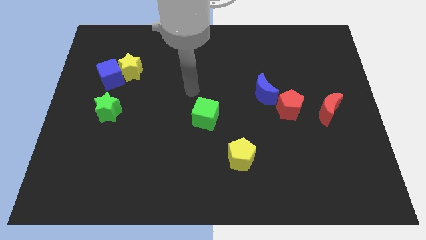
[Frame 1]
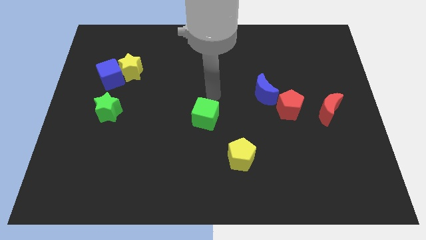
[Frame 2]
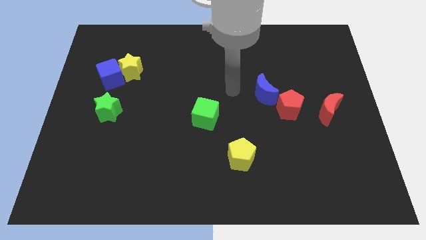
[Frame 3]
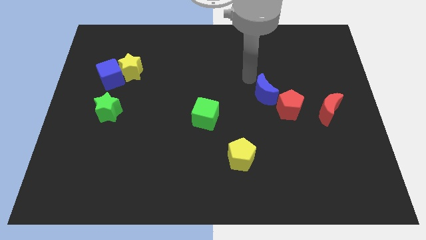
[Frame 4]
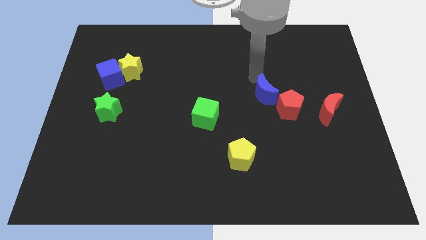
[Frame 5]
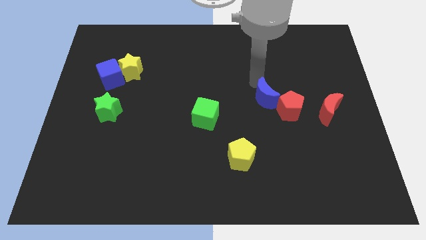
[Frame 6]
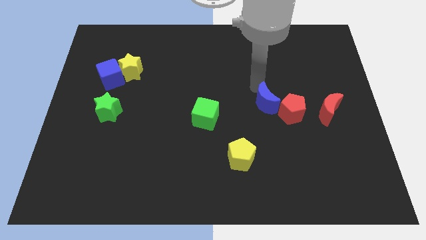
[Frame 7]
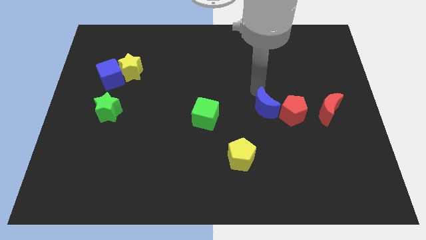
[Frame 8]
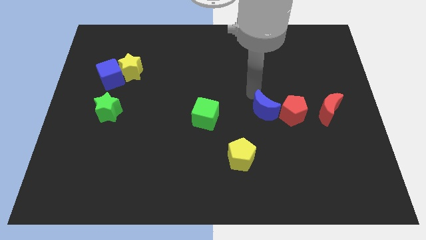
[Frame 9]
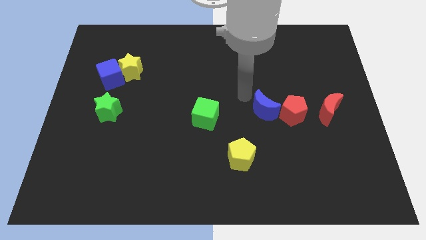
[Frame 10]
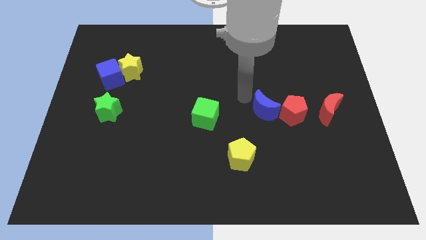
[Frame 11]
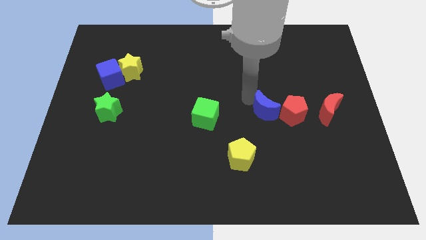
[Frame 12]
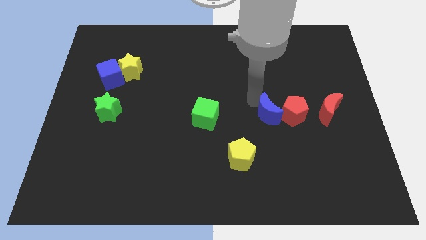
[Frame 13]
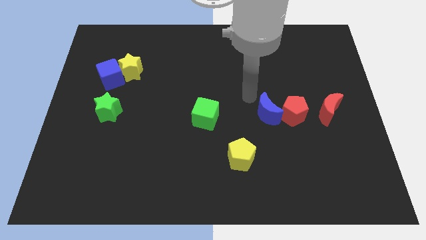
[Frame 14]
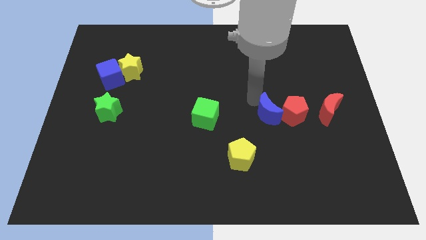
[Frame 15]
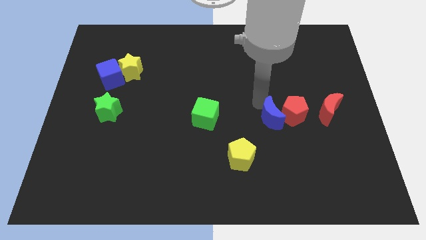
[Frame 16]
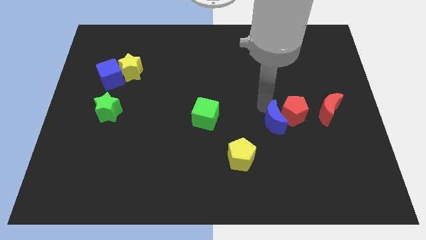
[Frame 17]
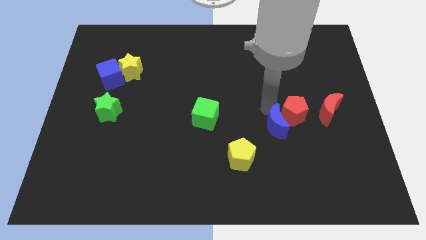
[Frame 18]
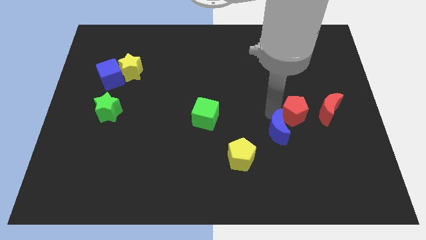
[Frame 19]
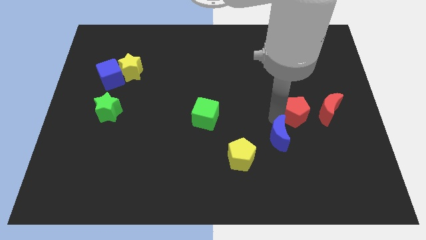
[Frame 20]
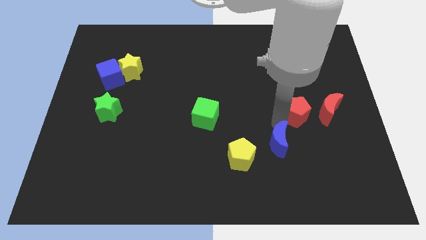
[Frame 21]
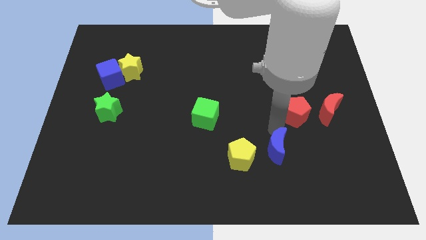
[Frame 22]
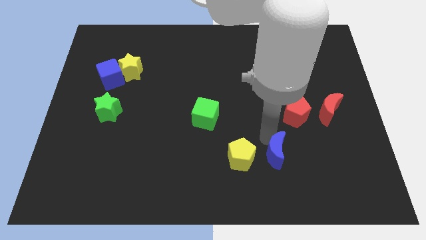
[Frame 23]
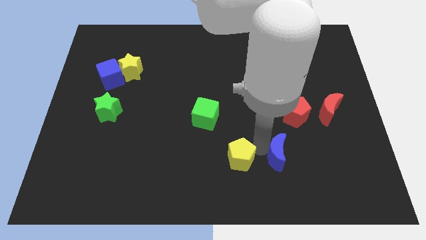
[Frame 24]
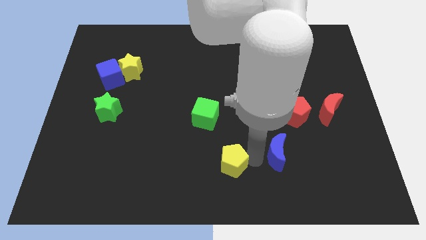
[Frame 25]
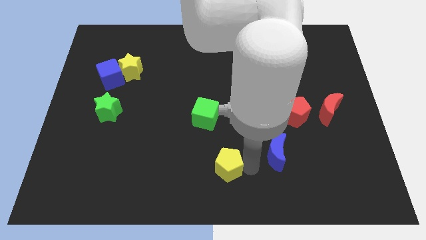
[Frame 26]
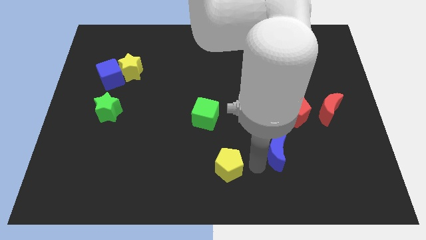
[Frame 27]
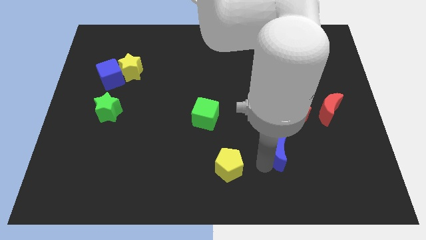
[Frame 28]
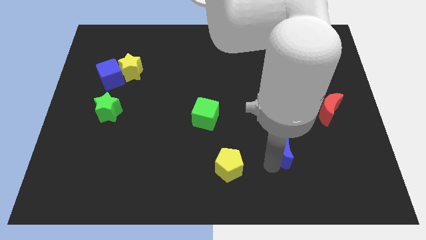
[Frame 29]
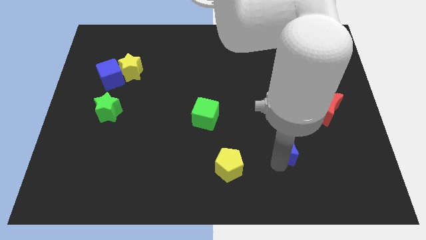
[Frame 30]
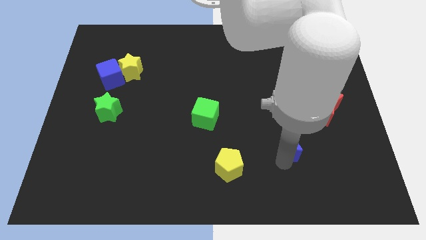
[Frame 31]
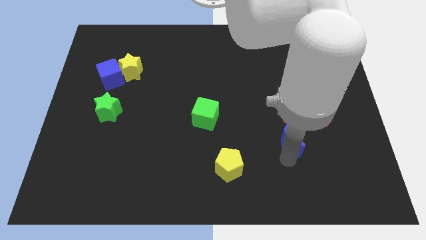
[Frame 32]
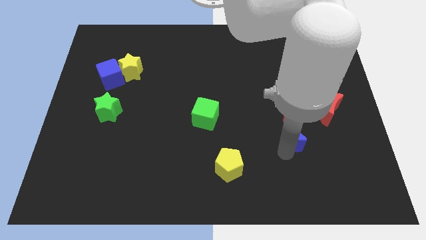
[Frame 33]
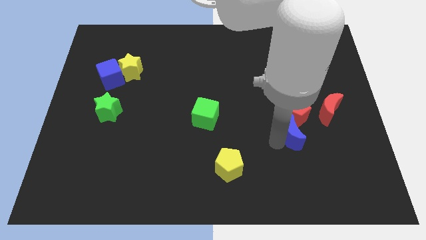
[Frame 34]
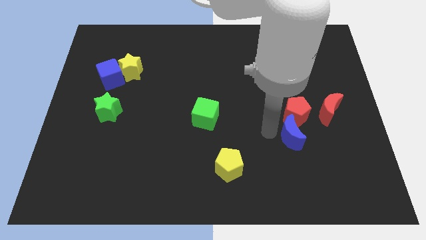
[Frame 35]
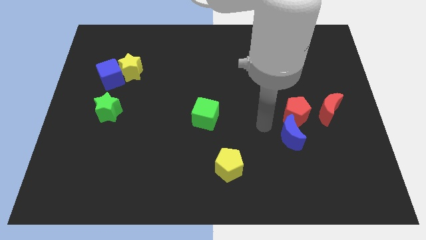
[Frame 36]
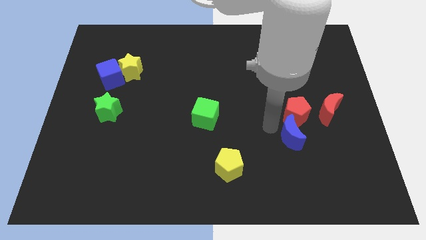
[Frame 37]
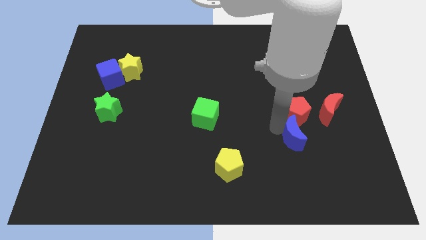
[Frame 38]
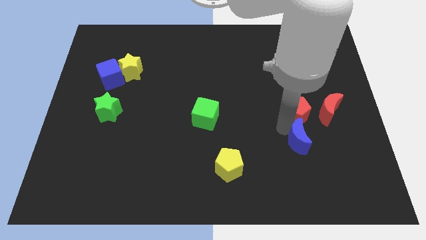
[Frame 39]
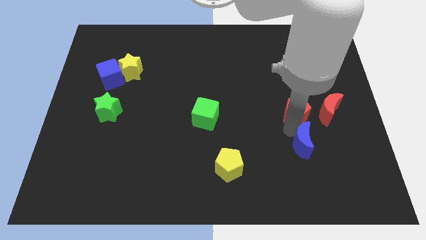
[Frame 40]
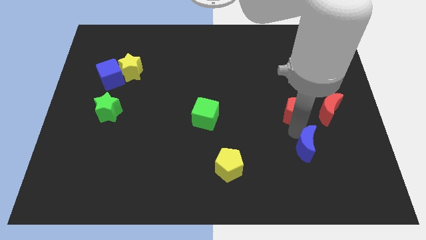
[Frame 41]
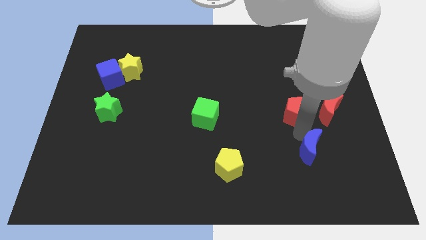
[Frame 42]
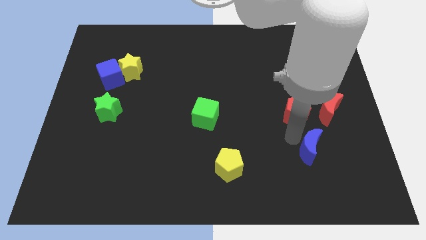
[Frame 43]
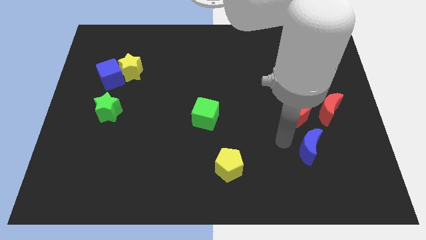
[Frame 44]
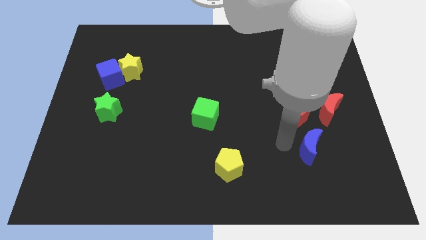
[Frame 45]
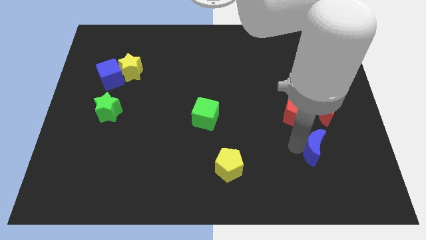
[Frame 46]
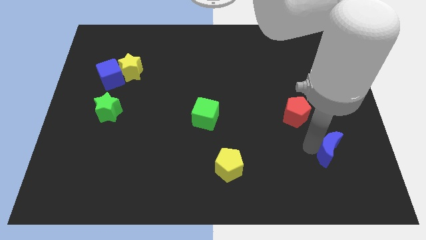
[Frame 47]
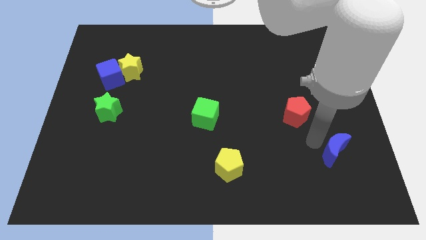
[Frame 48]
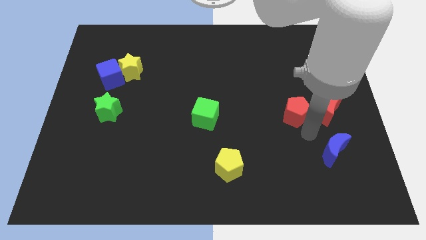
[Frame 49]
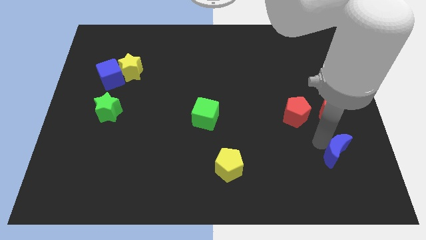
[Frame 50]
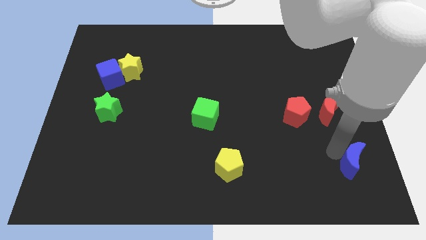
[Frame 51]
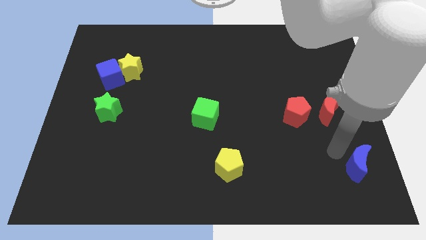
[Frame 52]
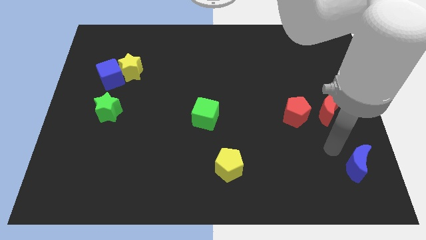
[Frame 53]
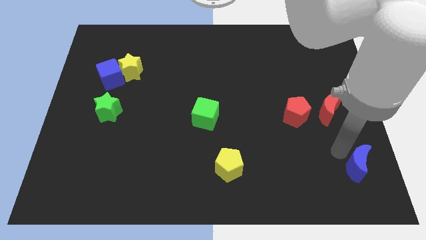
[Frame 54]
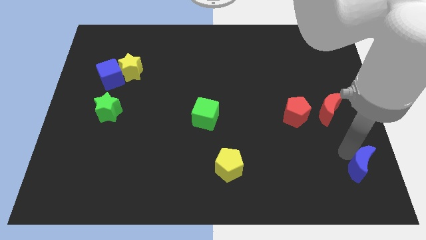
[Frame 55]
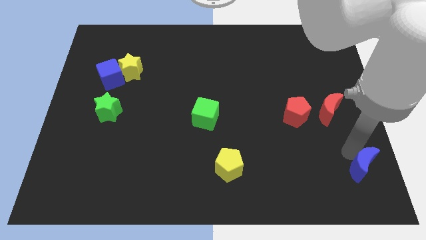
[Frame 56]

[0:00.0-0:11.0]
slide the blue moon to the bottom right corner
